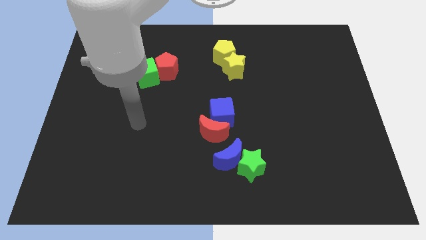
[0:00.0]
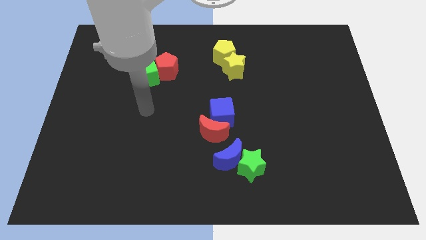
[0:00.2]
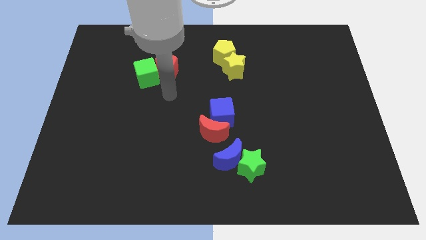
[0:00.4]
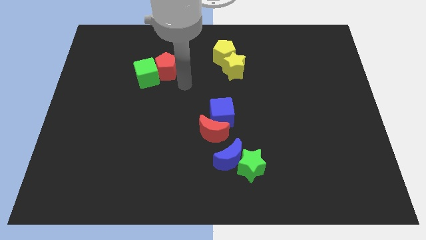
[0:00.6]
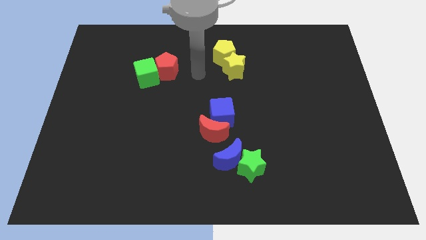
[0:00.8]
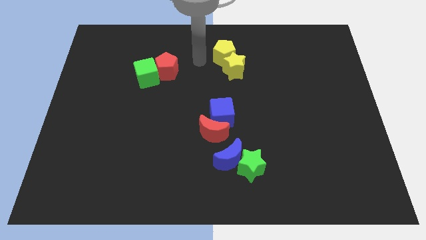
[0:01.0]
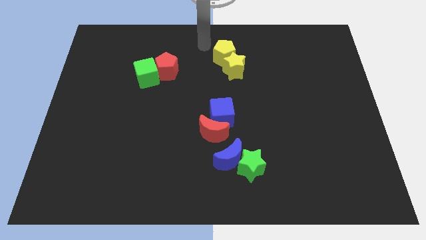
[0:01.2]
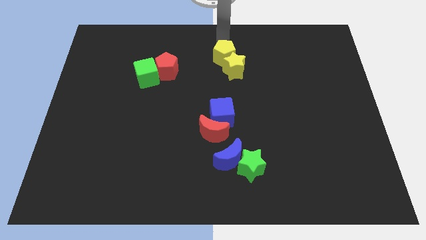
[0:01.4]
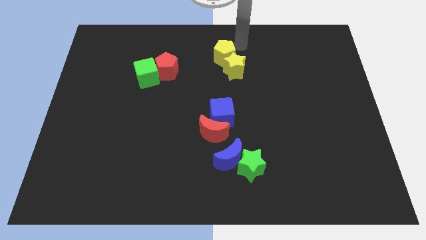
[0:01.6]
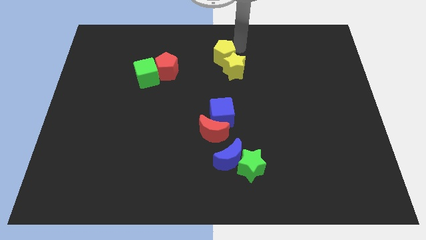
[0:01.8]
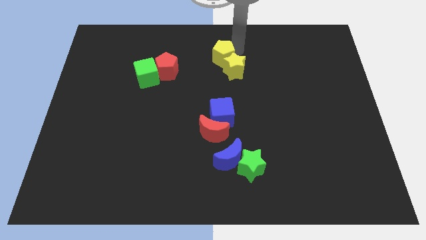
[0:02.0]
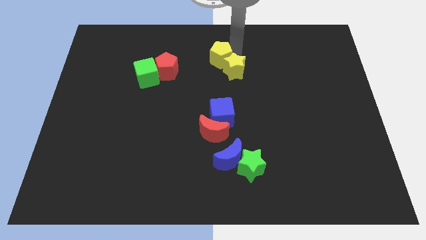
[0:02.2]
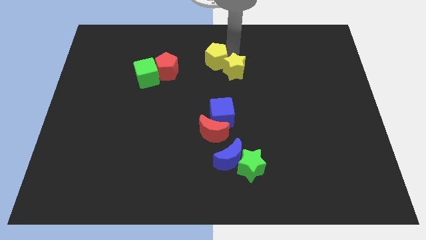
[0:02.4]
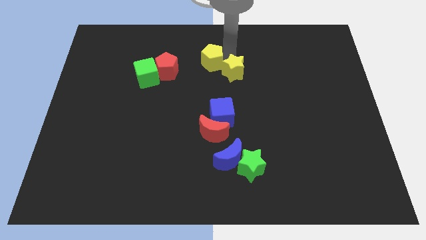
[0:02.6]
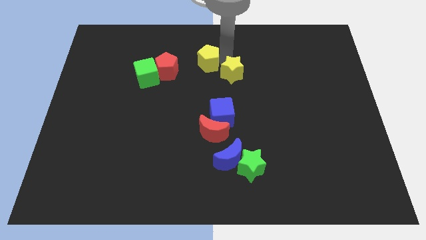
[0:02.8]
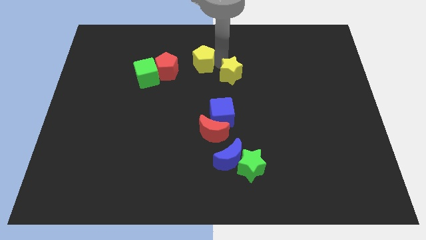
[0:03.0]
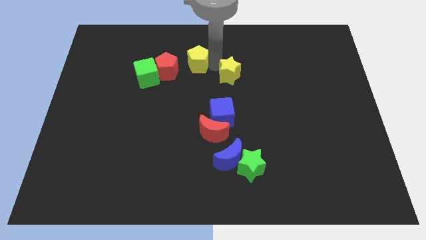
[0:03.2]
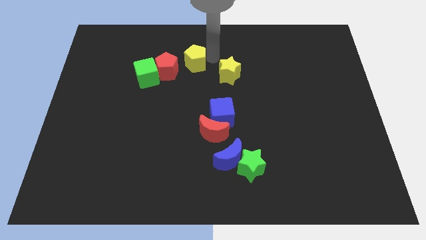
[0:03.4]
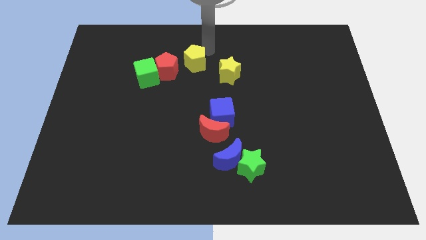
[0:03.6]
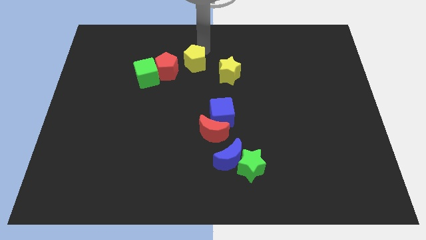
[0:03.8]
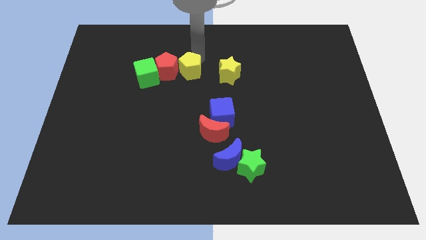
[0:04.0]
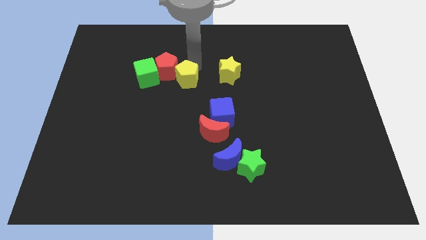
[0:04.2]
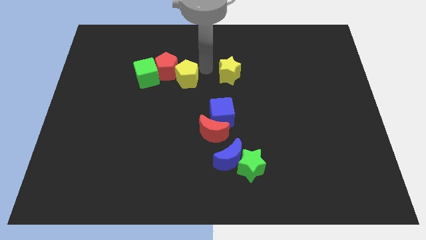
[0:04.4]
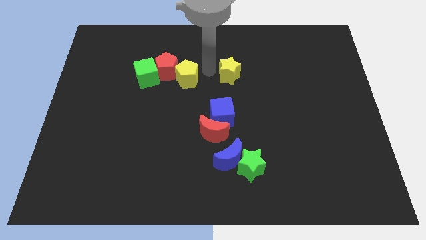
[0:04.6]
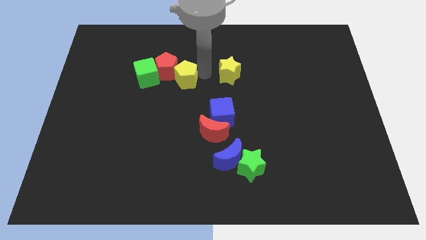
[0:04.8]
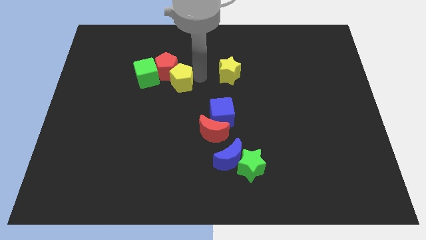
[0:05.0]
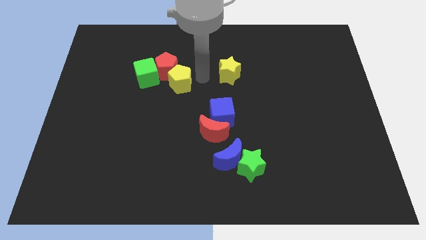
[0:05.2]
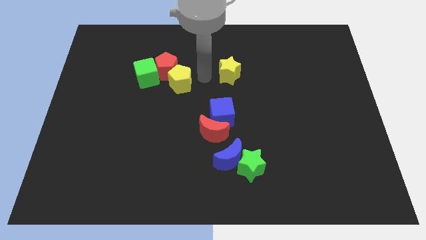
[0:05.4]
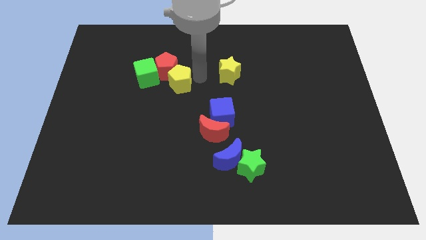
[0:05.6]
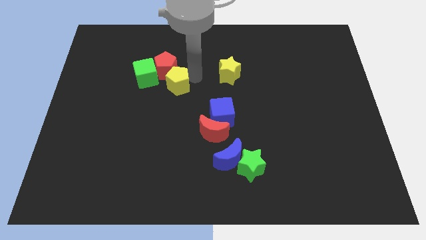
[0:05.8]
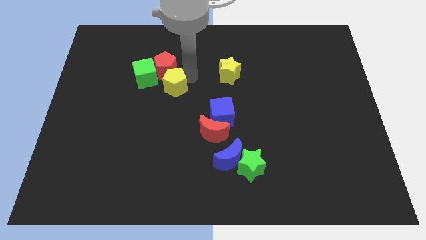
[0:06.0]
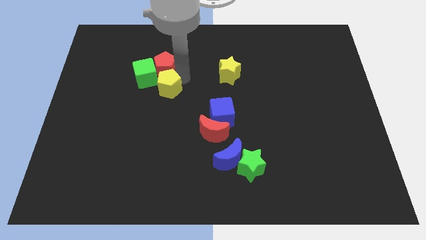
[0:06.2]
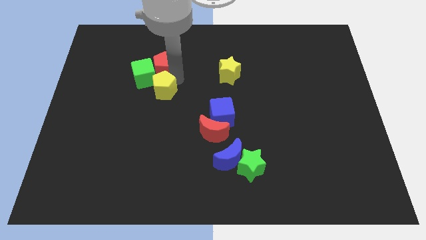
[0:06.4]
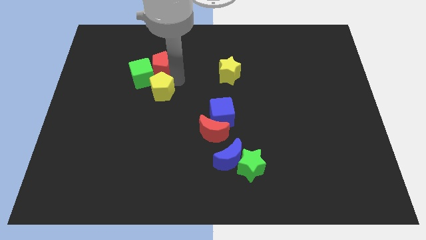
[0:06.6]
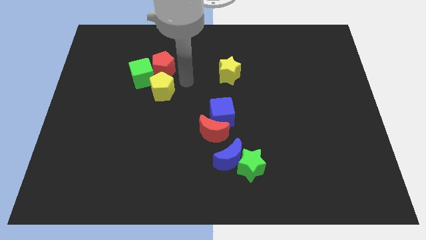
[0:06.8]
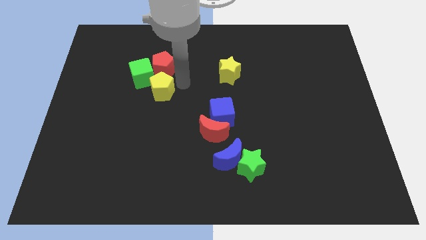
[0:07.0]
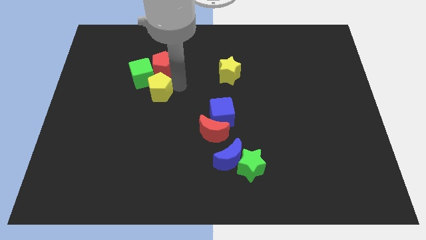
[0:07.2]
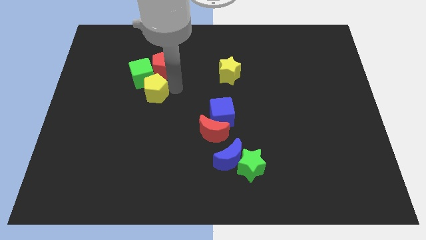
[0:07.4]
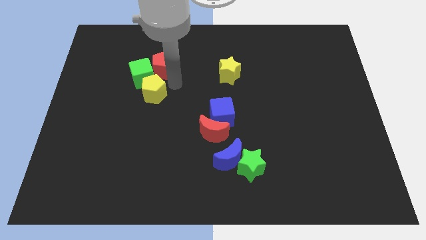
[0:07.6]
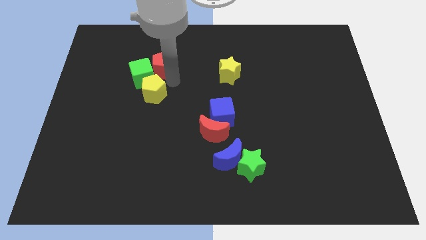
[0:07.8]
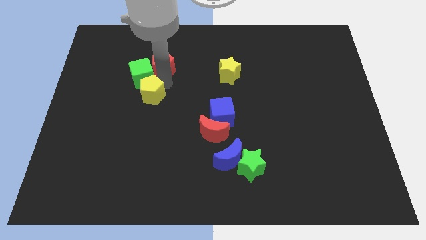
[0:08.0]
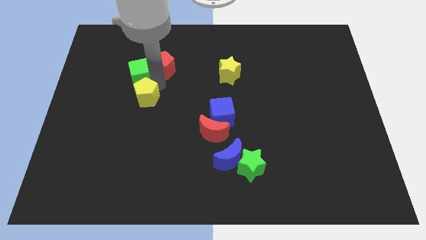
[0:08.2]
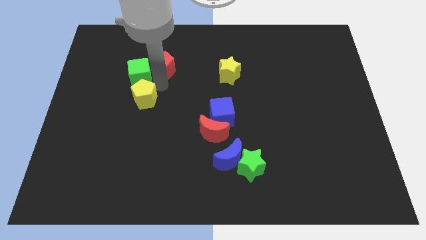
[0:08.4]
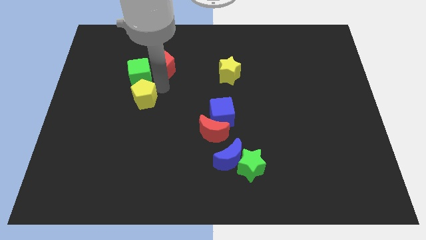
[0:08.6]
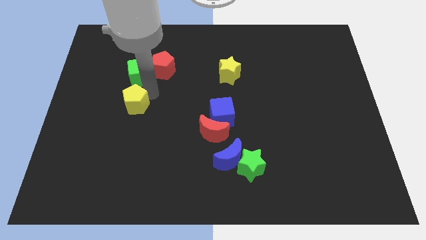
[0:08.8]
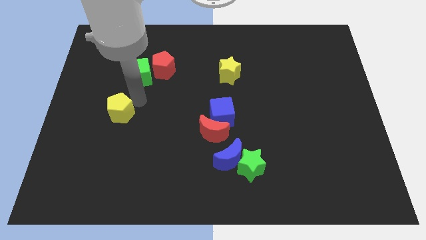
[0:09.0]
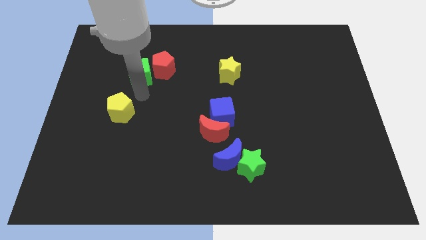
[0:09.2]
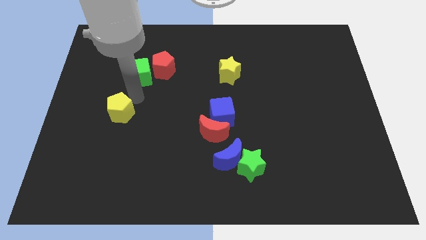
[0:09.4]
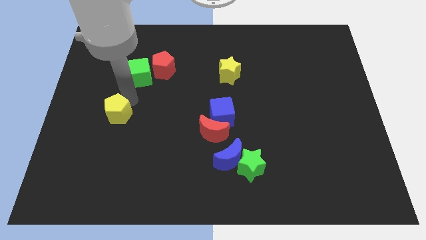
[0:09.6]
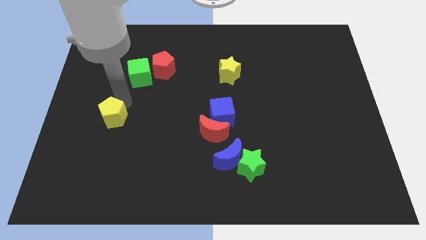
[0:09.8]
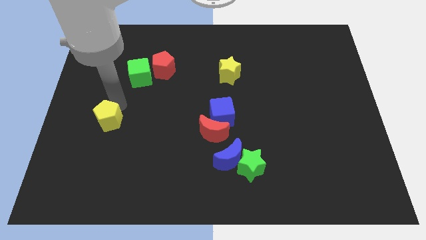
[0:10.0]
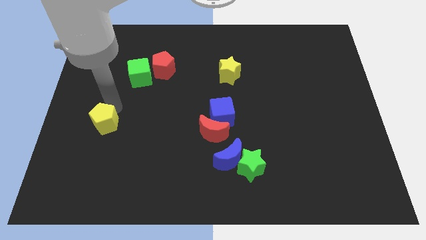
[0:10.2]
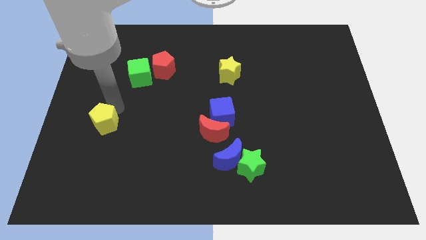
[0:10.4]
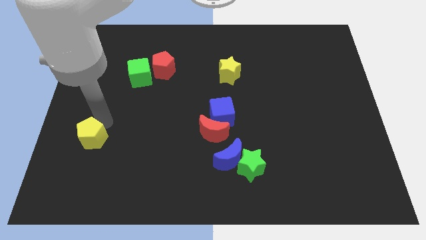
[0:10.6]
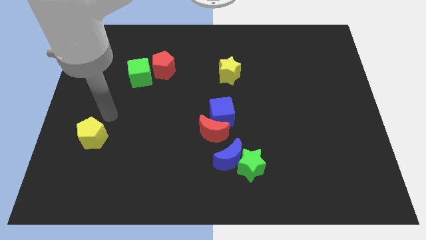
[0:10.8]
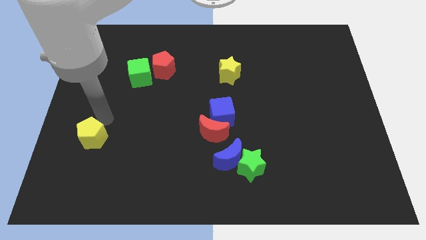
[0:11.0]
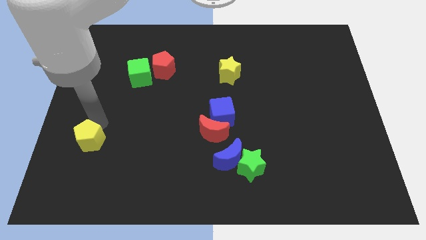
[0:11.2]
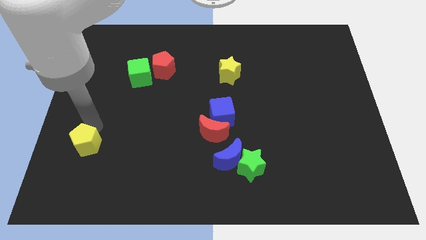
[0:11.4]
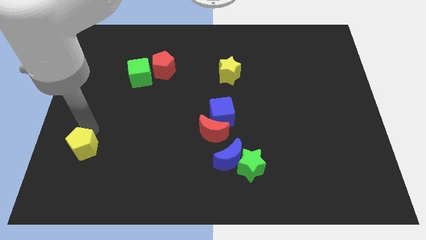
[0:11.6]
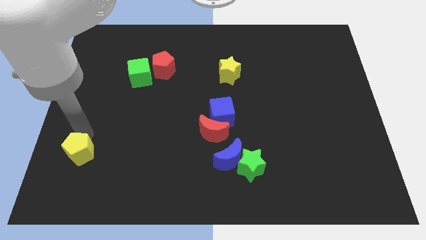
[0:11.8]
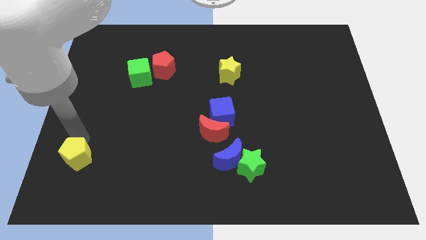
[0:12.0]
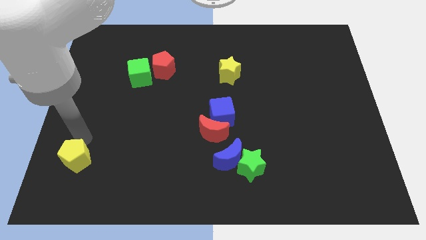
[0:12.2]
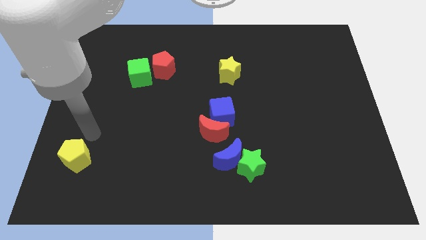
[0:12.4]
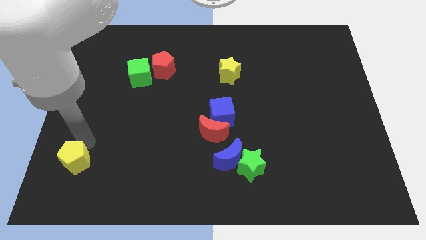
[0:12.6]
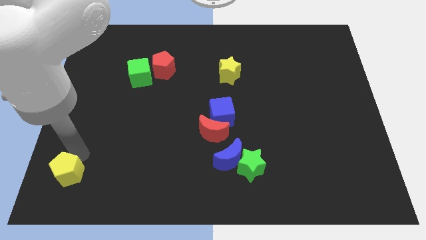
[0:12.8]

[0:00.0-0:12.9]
move the yellow pentagon to the bottom left corner
